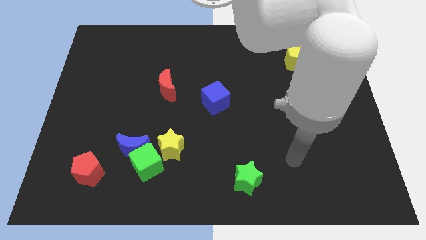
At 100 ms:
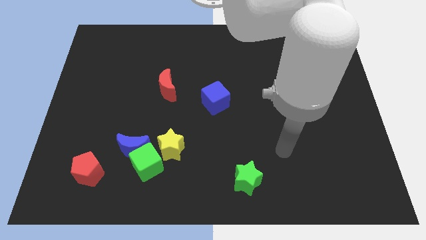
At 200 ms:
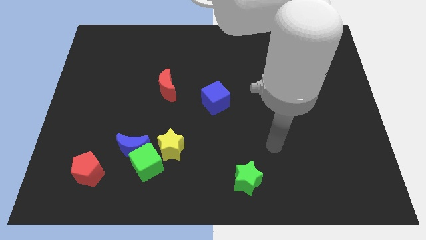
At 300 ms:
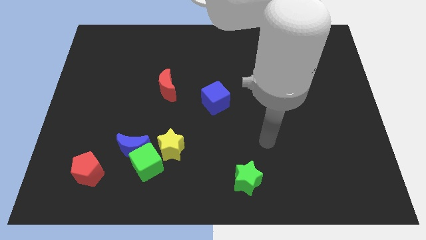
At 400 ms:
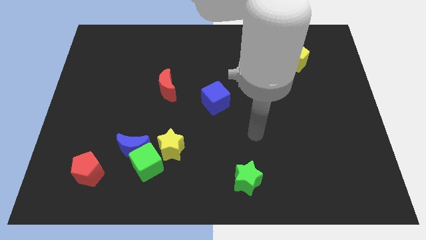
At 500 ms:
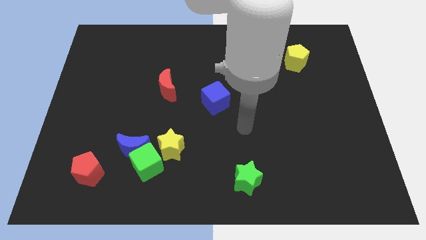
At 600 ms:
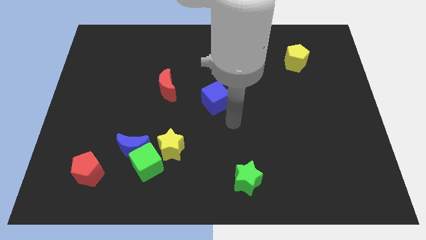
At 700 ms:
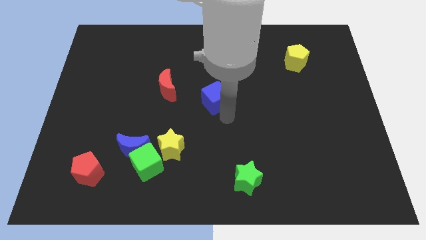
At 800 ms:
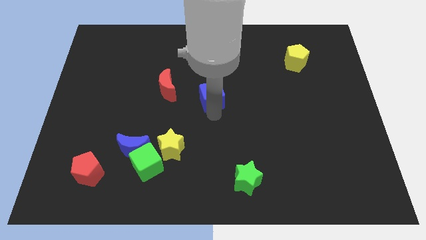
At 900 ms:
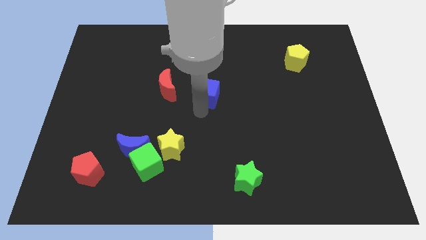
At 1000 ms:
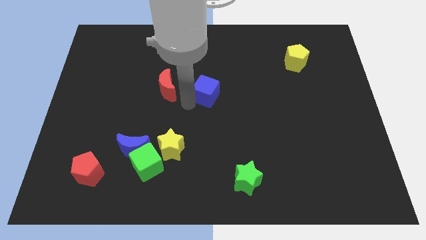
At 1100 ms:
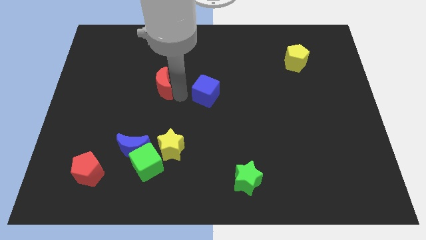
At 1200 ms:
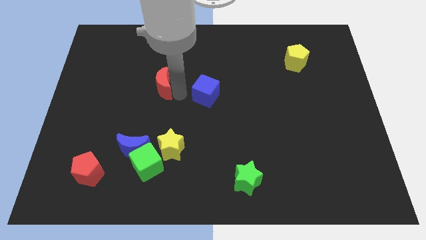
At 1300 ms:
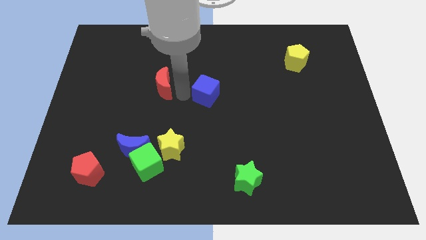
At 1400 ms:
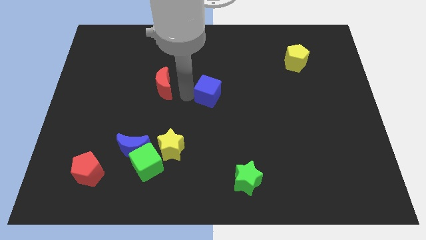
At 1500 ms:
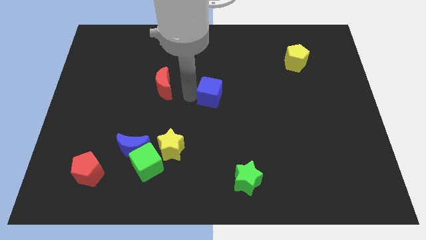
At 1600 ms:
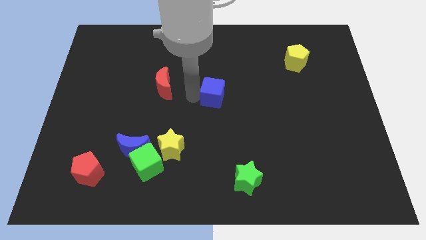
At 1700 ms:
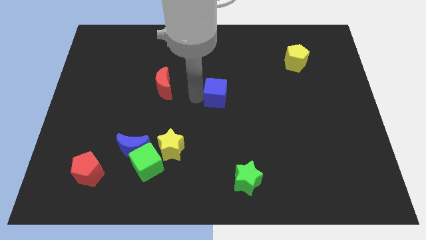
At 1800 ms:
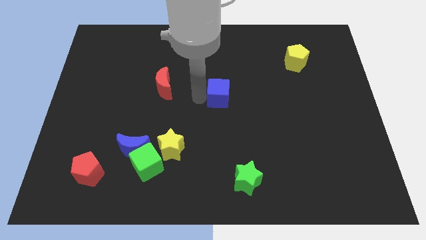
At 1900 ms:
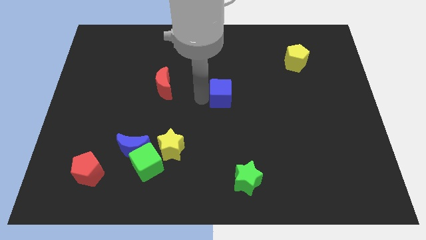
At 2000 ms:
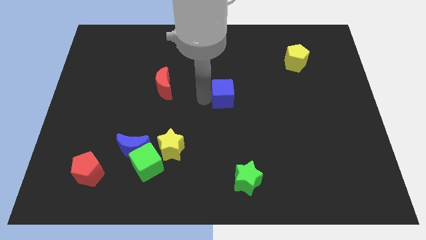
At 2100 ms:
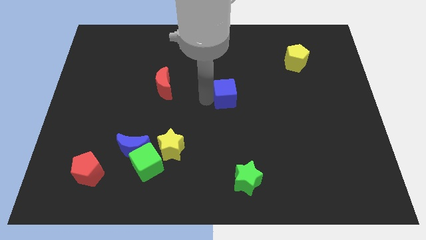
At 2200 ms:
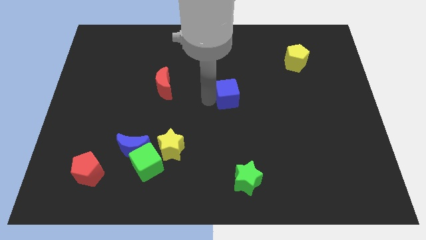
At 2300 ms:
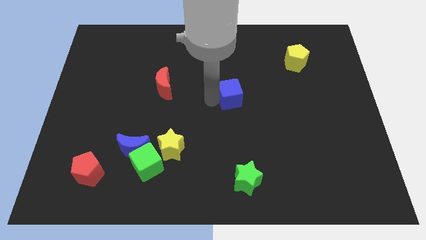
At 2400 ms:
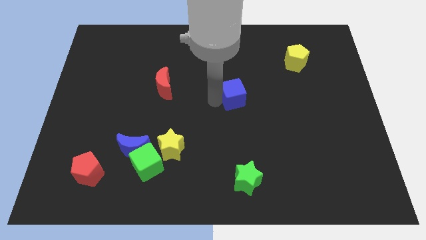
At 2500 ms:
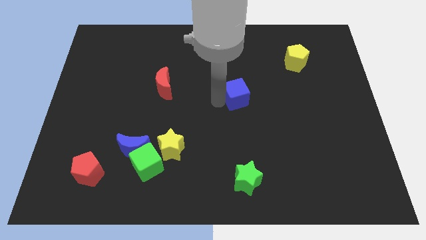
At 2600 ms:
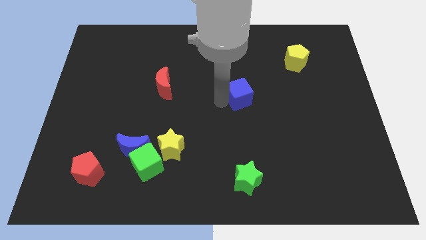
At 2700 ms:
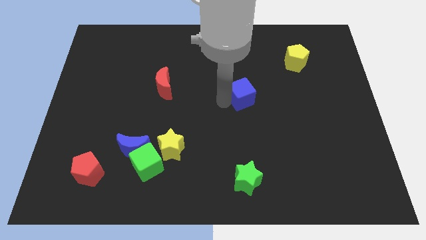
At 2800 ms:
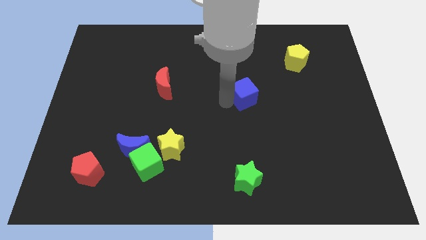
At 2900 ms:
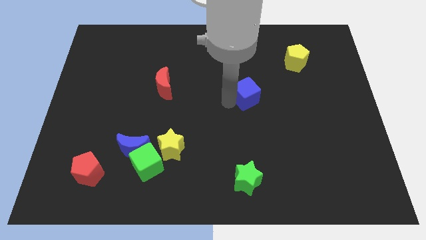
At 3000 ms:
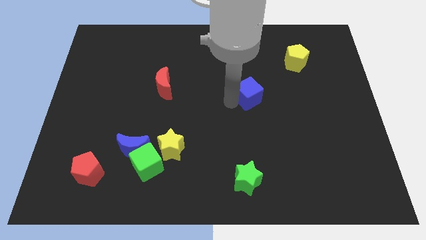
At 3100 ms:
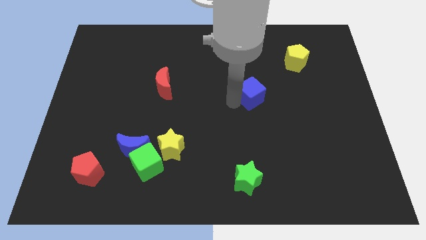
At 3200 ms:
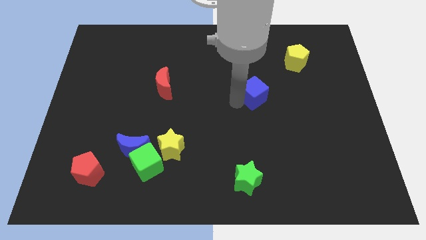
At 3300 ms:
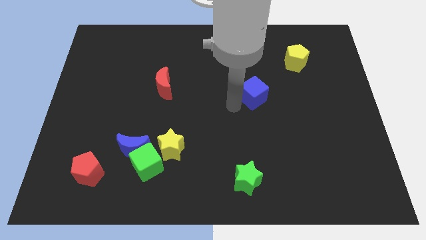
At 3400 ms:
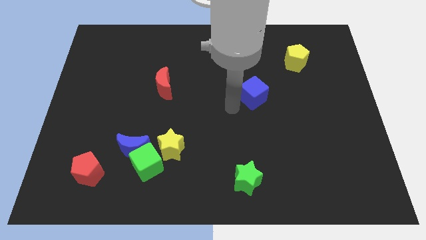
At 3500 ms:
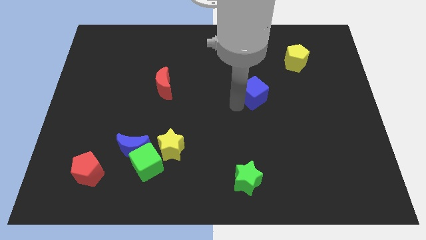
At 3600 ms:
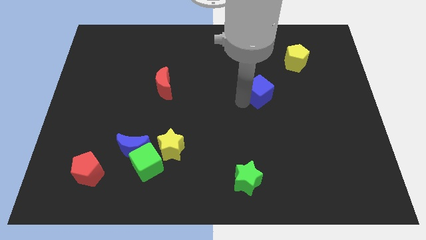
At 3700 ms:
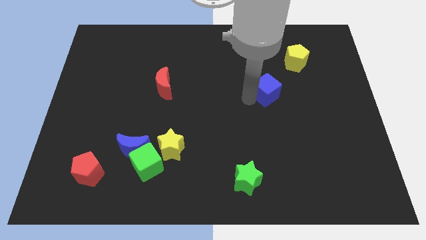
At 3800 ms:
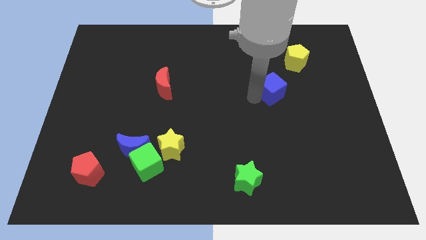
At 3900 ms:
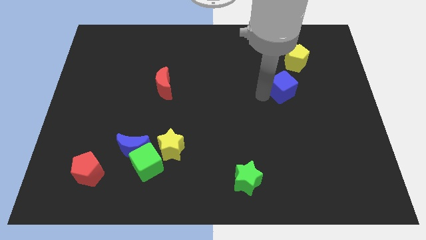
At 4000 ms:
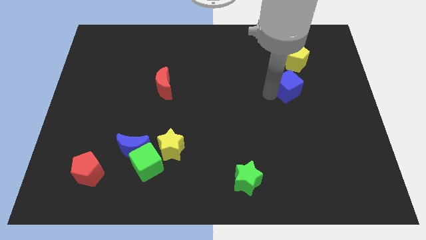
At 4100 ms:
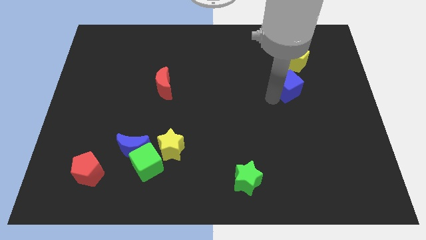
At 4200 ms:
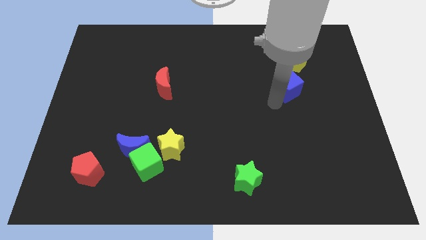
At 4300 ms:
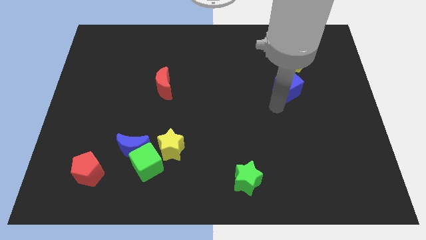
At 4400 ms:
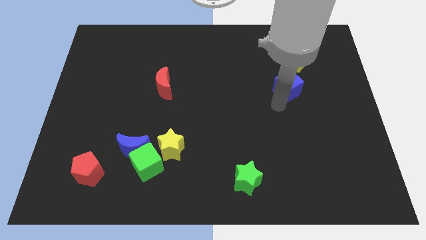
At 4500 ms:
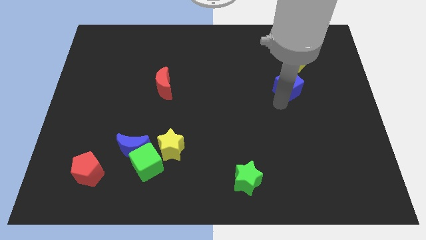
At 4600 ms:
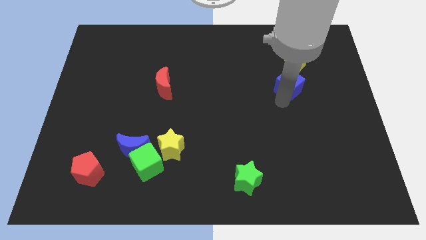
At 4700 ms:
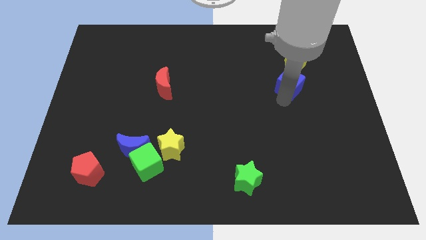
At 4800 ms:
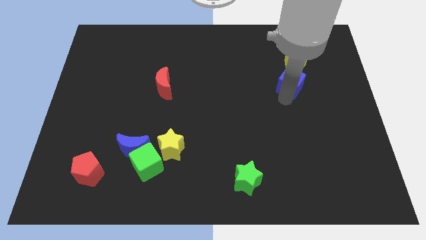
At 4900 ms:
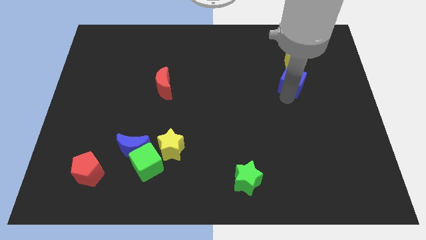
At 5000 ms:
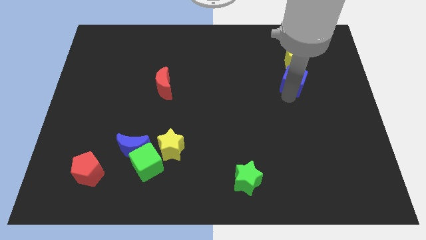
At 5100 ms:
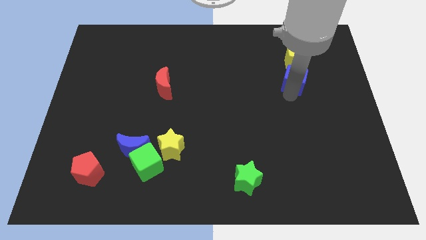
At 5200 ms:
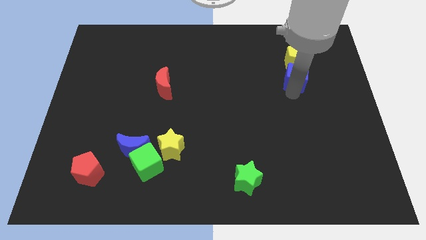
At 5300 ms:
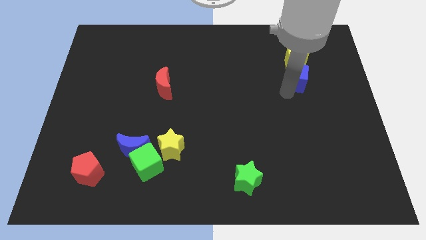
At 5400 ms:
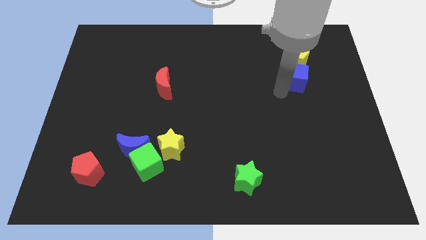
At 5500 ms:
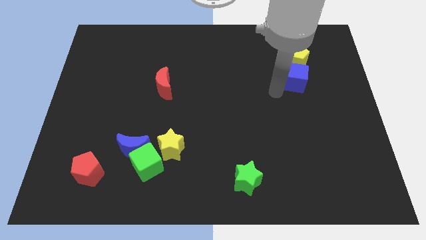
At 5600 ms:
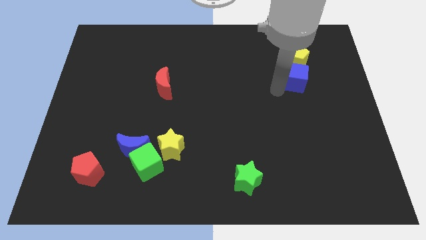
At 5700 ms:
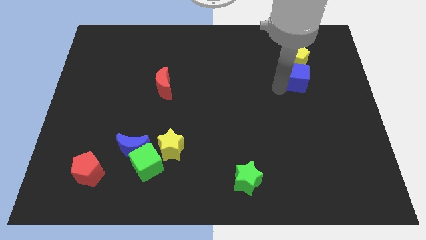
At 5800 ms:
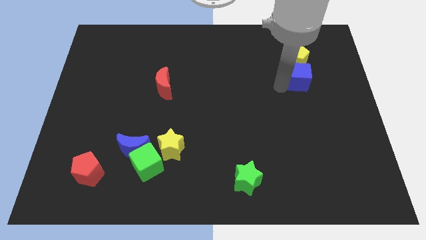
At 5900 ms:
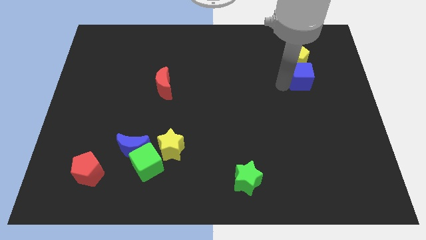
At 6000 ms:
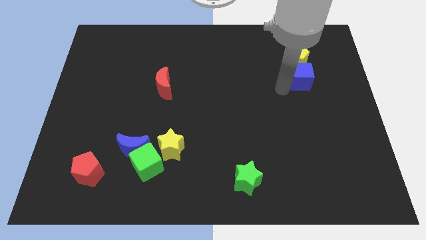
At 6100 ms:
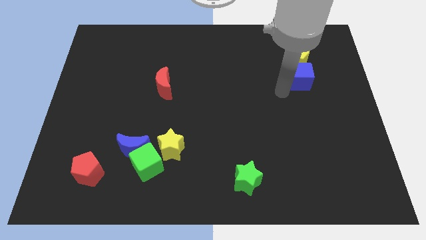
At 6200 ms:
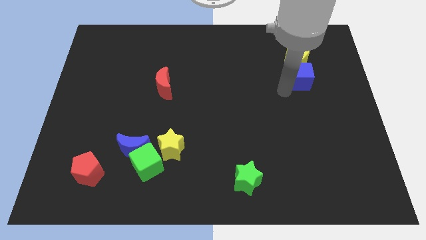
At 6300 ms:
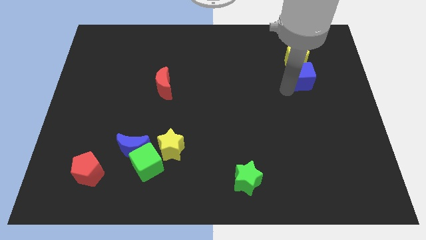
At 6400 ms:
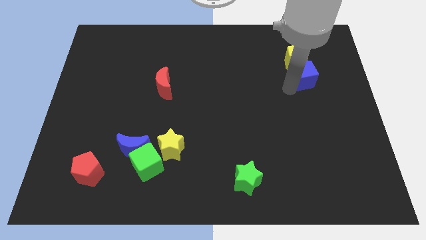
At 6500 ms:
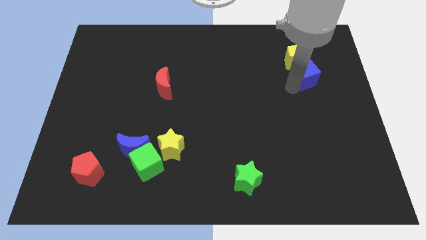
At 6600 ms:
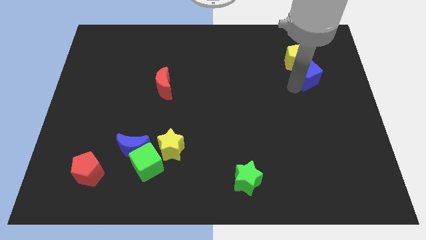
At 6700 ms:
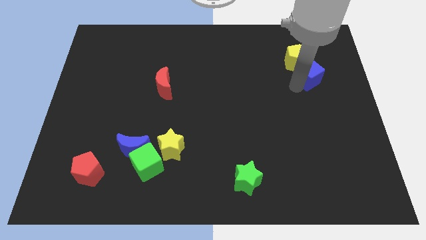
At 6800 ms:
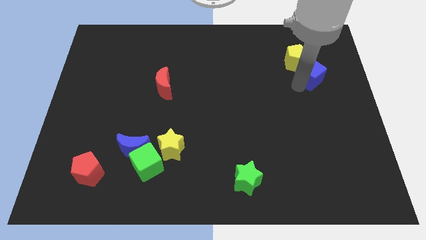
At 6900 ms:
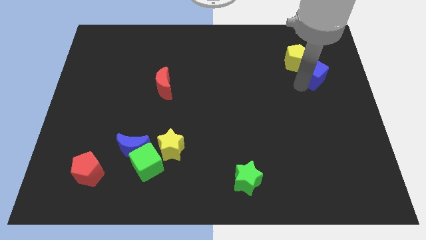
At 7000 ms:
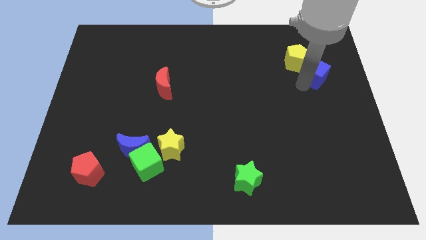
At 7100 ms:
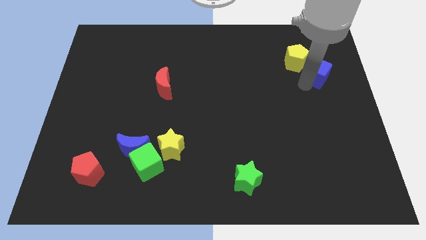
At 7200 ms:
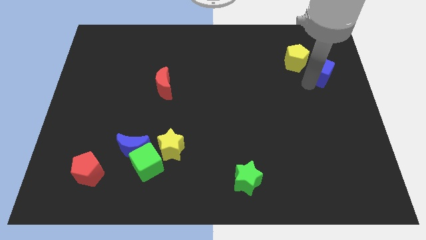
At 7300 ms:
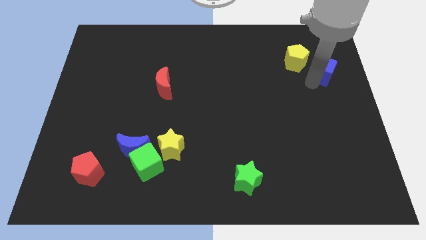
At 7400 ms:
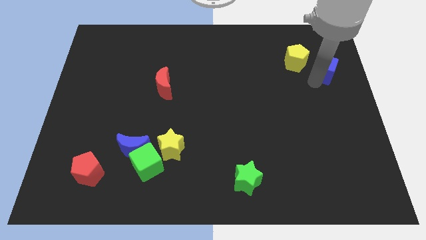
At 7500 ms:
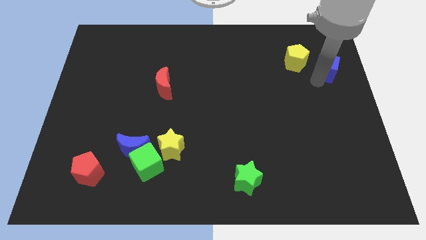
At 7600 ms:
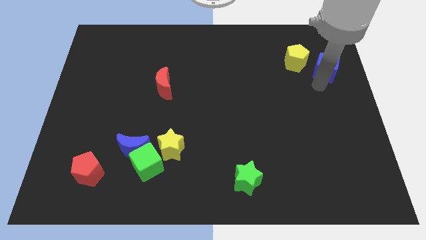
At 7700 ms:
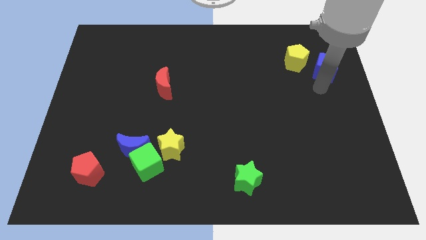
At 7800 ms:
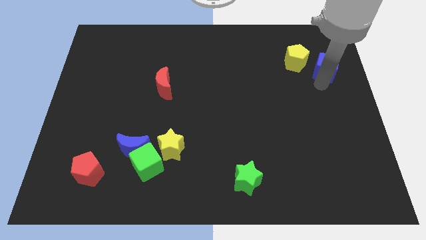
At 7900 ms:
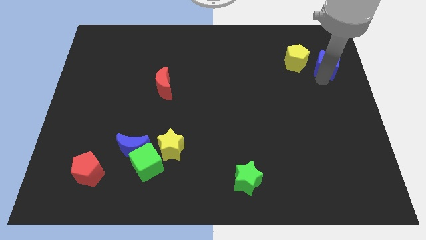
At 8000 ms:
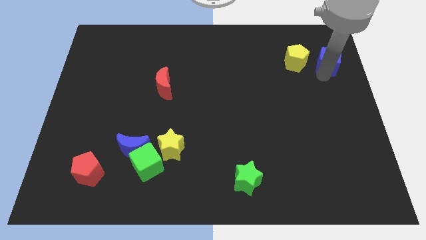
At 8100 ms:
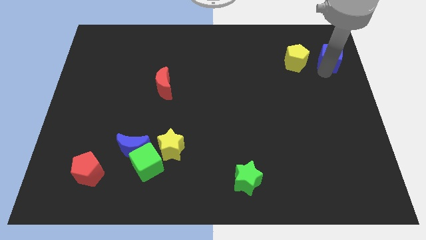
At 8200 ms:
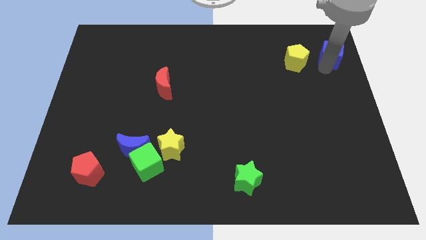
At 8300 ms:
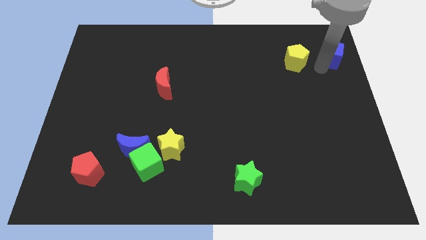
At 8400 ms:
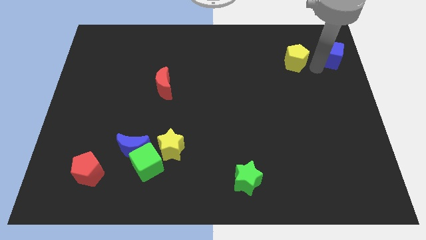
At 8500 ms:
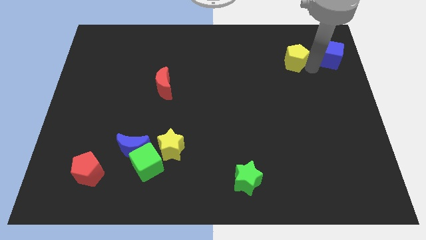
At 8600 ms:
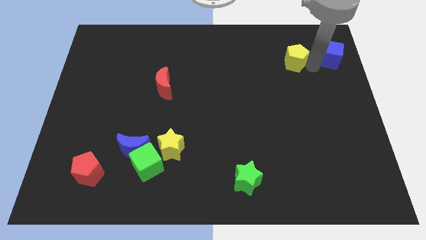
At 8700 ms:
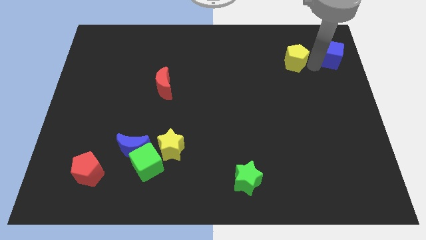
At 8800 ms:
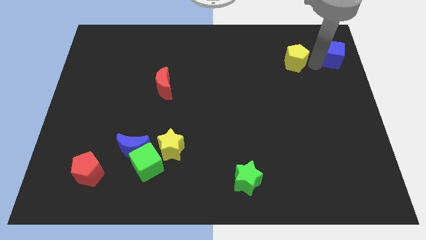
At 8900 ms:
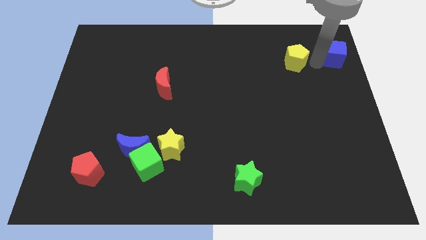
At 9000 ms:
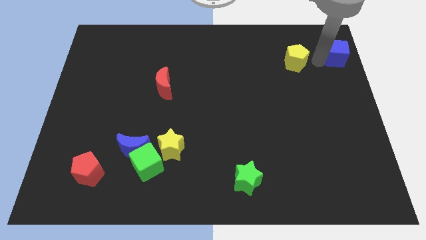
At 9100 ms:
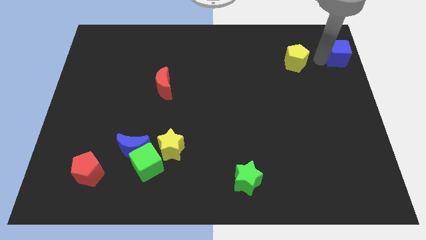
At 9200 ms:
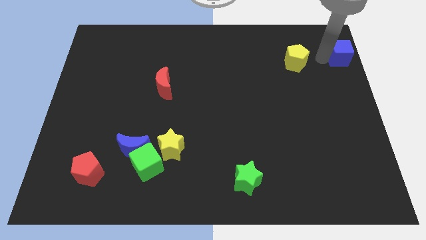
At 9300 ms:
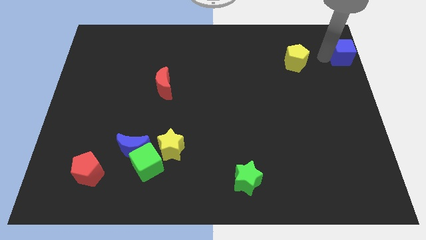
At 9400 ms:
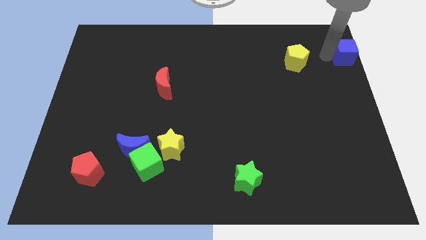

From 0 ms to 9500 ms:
move the blue cube to the top right of the board
